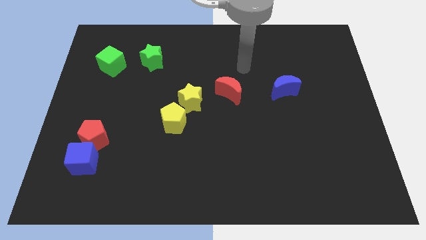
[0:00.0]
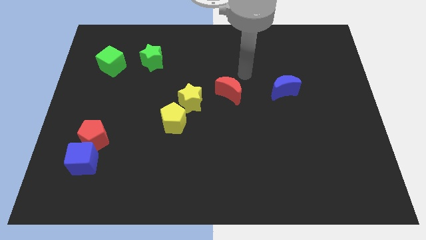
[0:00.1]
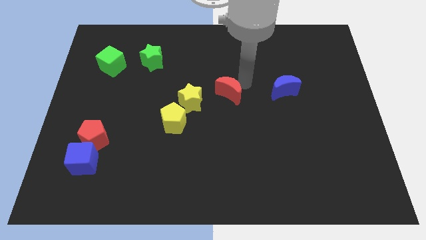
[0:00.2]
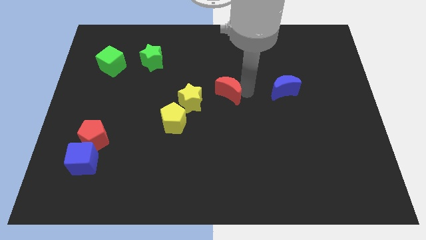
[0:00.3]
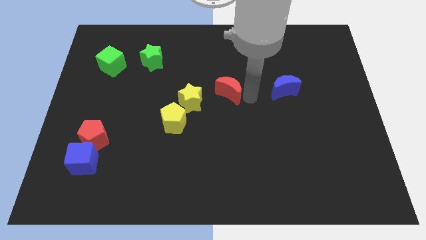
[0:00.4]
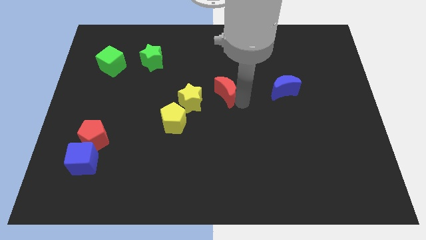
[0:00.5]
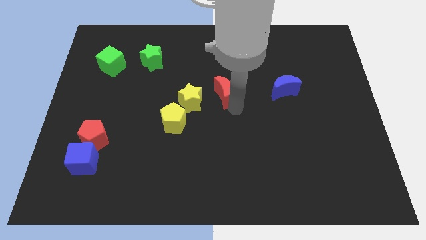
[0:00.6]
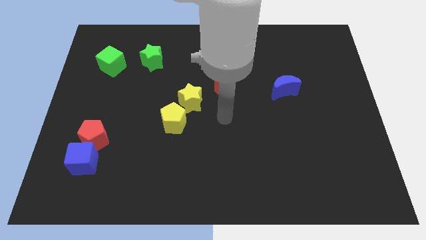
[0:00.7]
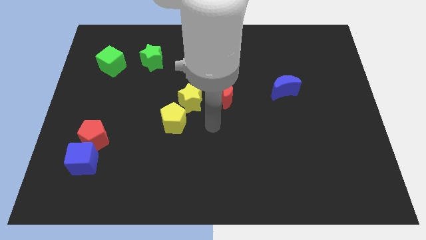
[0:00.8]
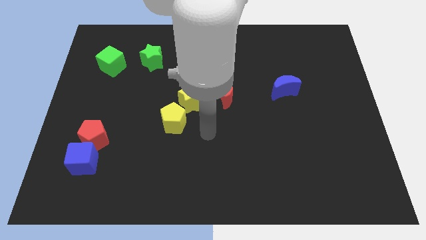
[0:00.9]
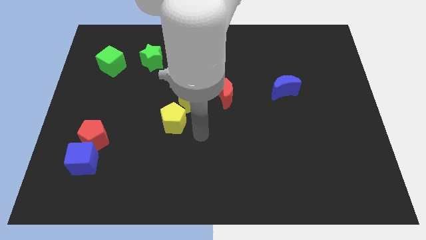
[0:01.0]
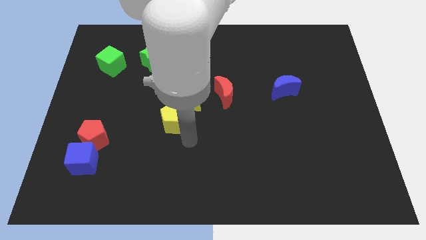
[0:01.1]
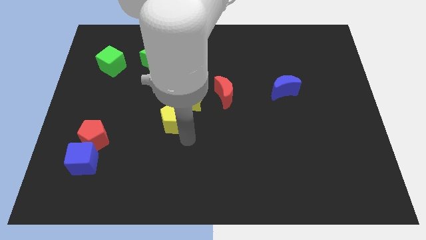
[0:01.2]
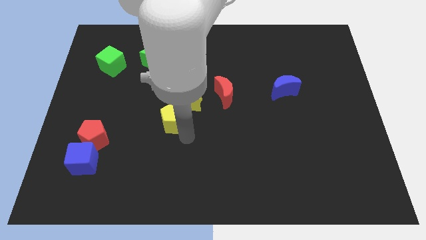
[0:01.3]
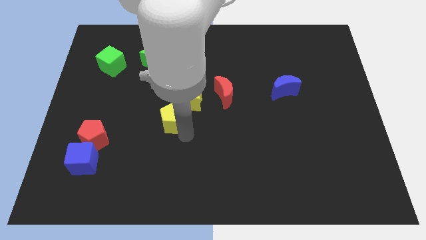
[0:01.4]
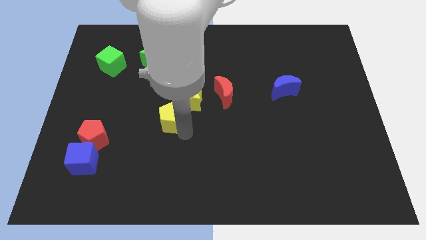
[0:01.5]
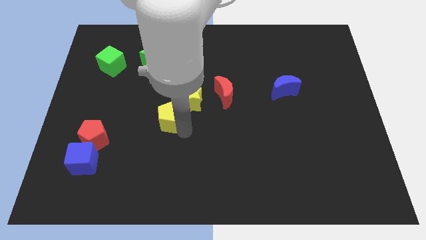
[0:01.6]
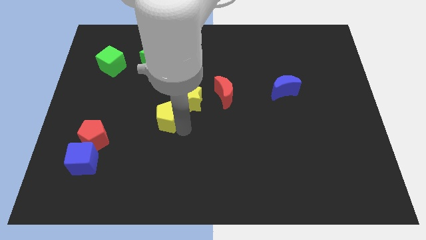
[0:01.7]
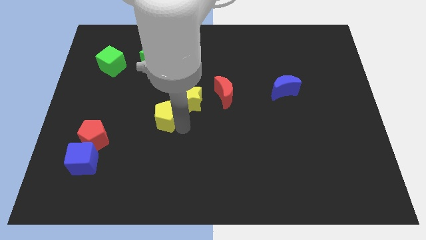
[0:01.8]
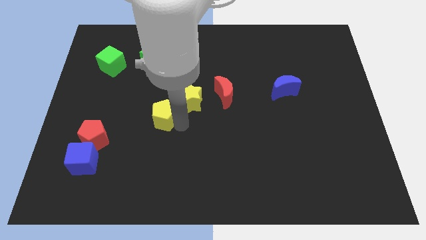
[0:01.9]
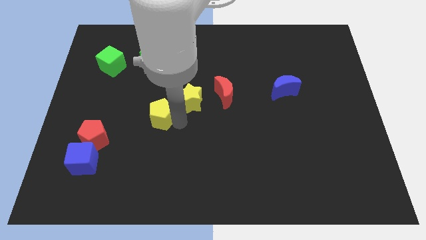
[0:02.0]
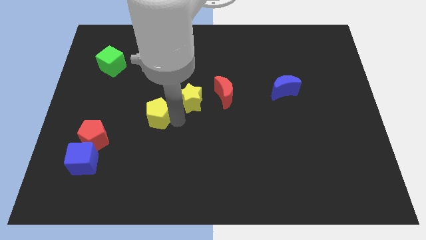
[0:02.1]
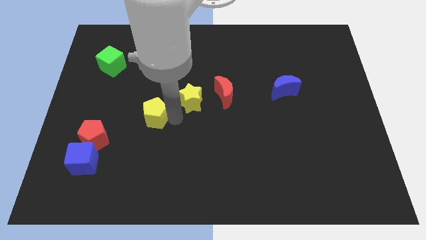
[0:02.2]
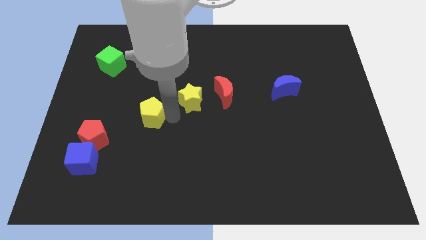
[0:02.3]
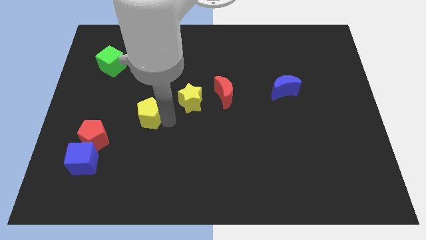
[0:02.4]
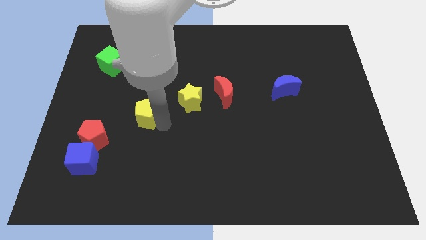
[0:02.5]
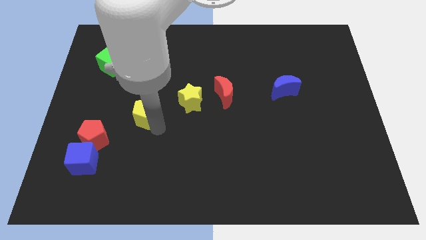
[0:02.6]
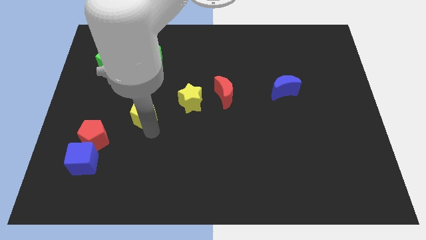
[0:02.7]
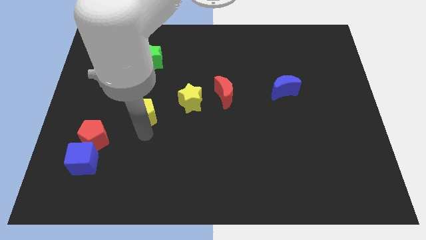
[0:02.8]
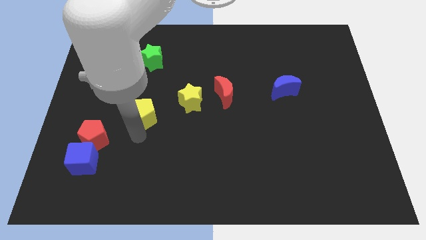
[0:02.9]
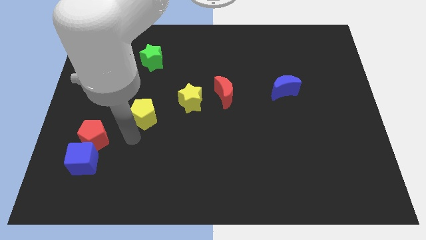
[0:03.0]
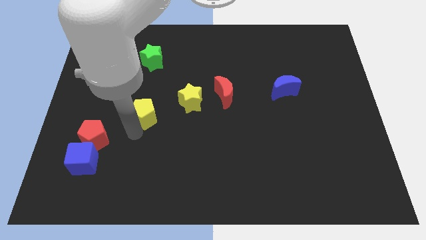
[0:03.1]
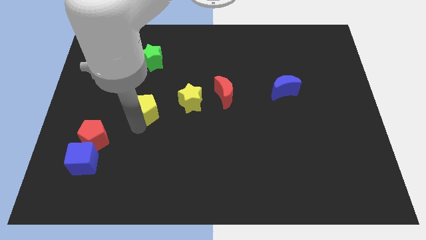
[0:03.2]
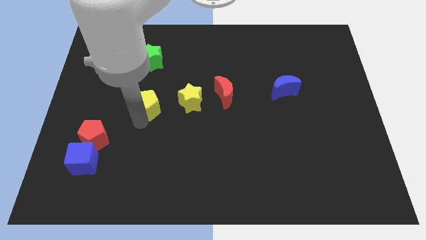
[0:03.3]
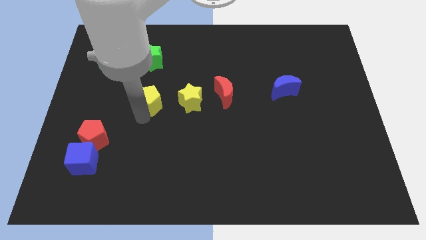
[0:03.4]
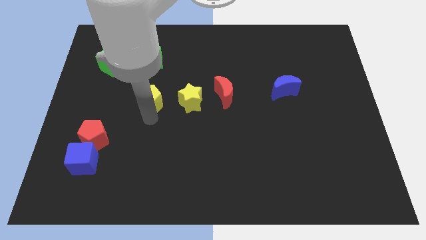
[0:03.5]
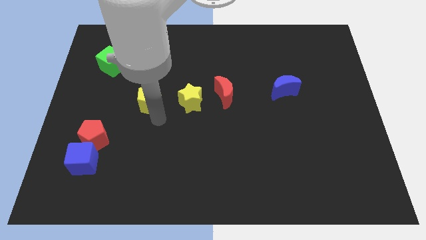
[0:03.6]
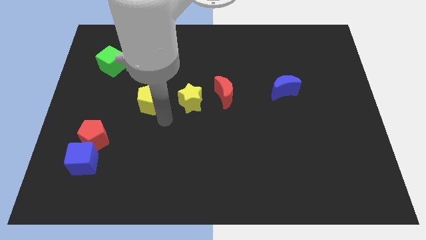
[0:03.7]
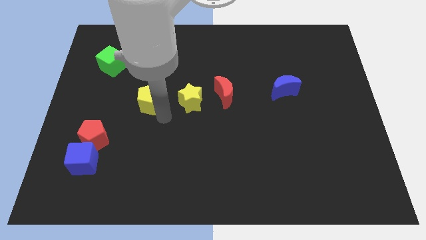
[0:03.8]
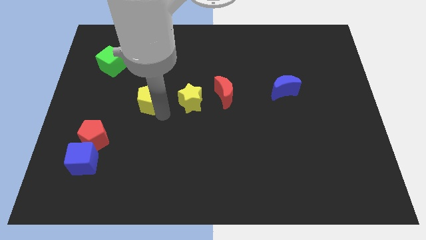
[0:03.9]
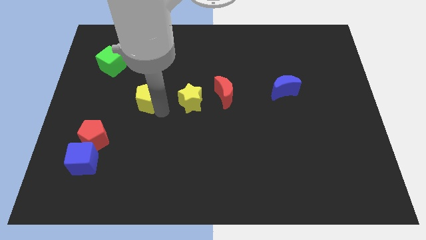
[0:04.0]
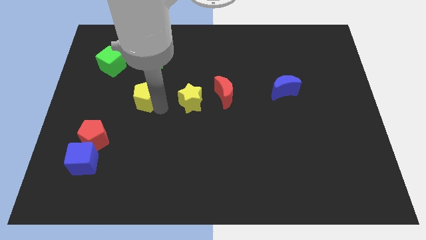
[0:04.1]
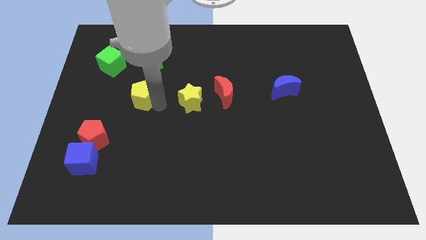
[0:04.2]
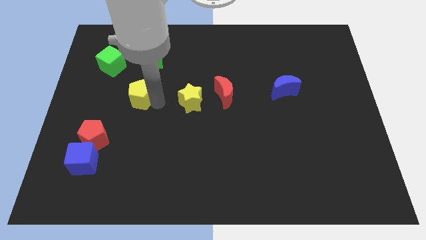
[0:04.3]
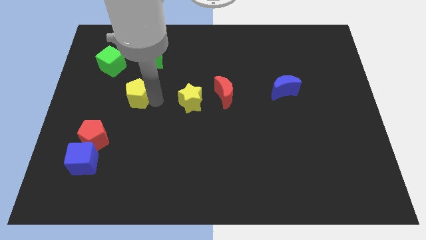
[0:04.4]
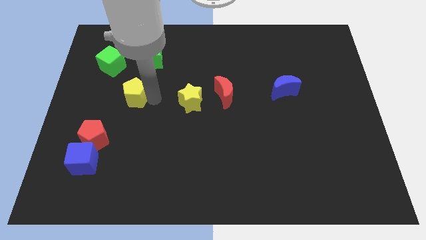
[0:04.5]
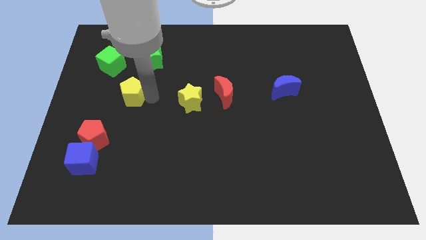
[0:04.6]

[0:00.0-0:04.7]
push the yellow pentagon to the bottom right side of the green cube

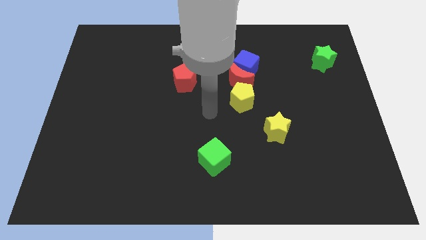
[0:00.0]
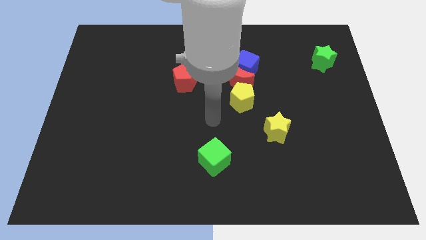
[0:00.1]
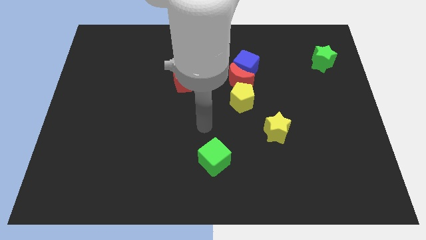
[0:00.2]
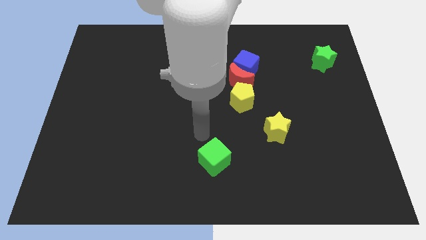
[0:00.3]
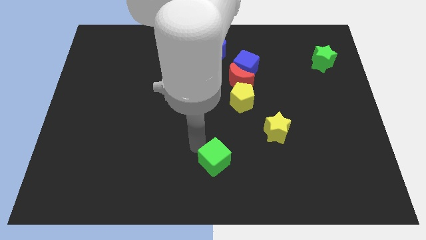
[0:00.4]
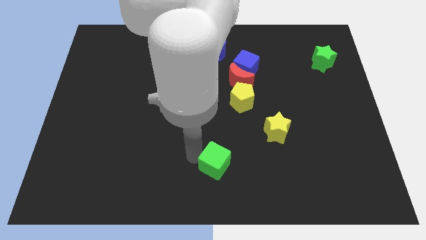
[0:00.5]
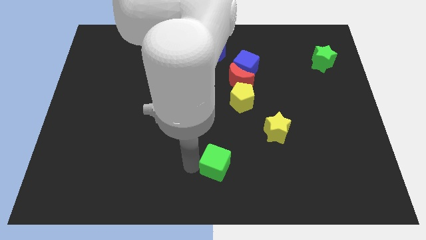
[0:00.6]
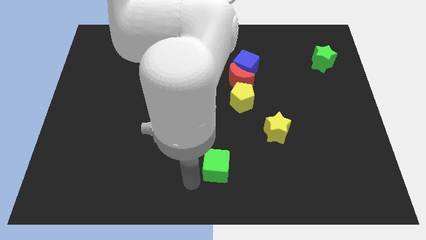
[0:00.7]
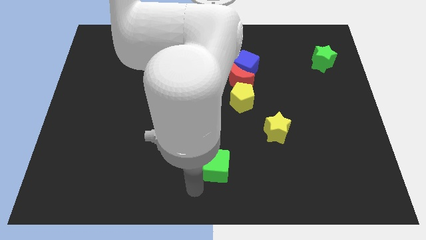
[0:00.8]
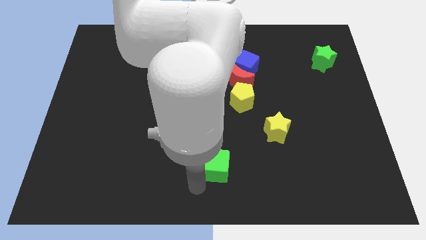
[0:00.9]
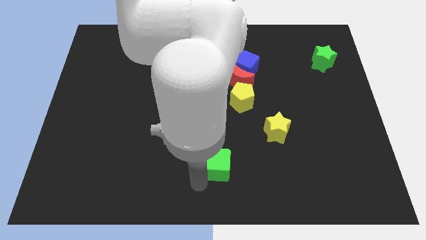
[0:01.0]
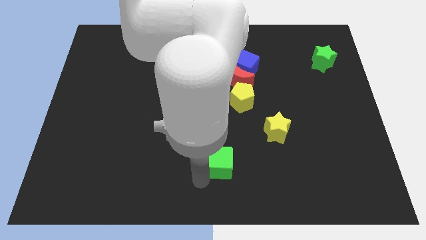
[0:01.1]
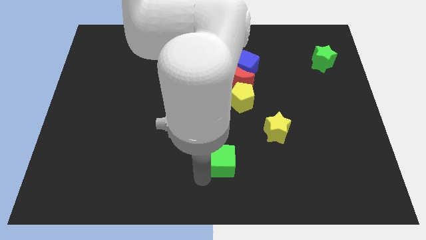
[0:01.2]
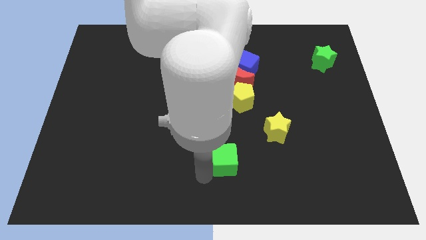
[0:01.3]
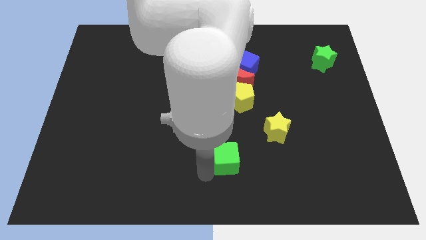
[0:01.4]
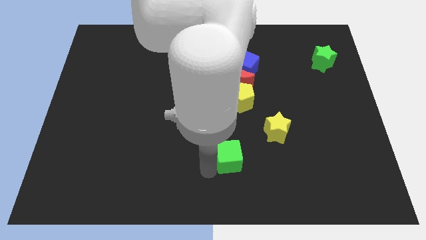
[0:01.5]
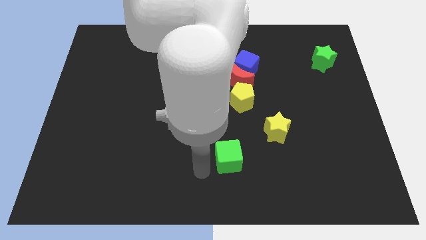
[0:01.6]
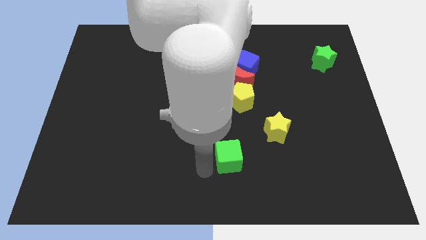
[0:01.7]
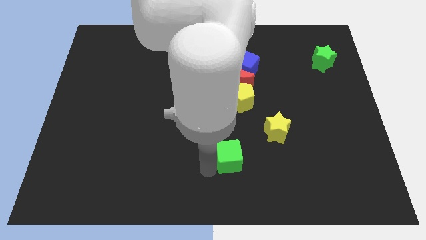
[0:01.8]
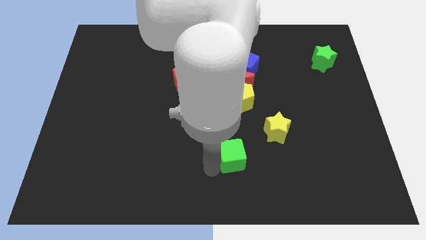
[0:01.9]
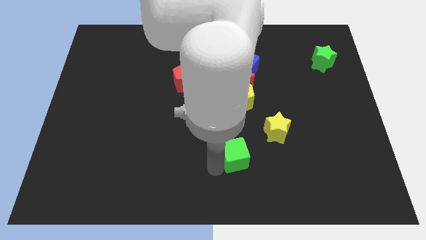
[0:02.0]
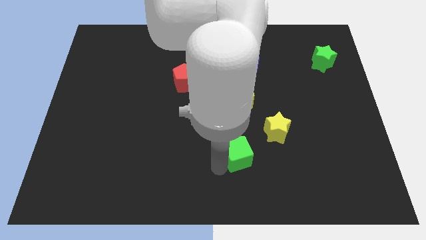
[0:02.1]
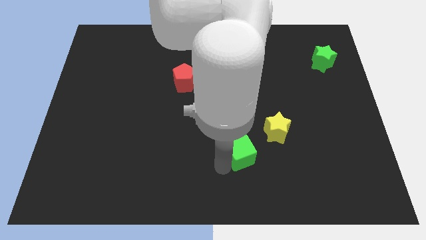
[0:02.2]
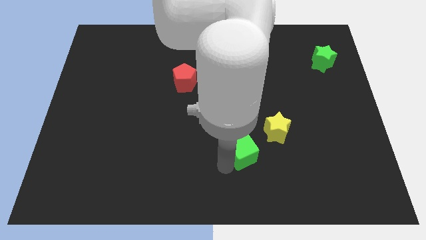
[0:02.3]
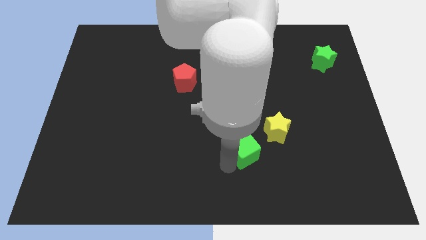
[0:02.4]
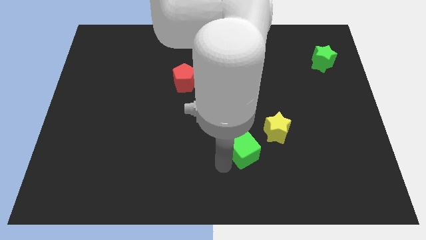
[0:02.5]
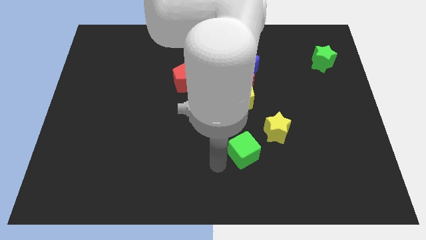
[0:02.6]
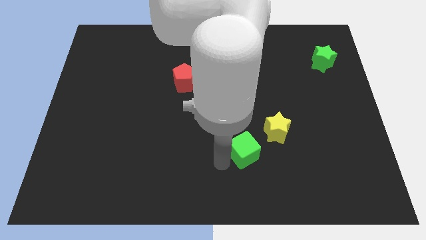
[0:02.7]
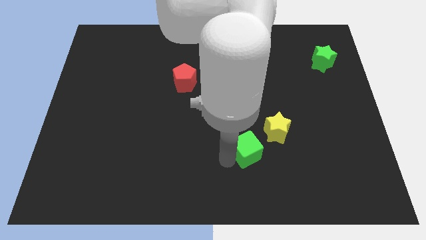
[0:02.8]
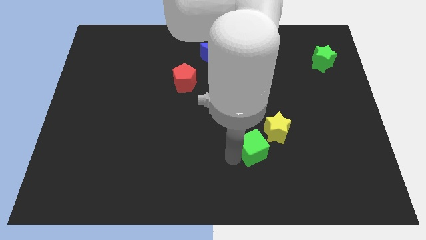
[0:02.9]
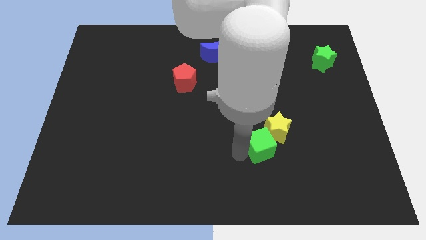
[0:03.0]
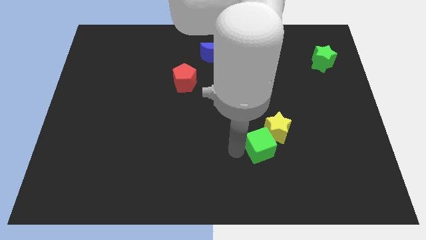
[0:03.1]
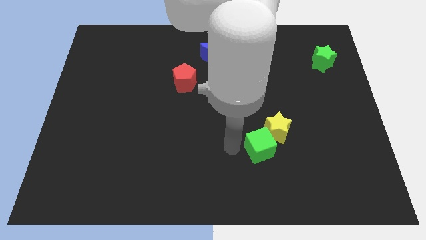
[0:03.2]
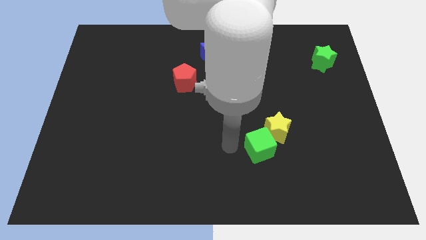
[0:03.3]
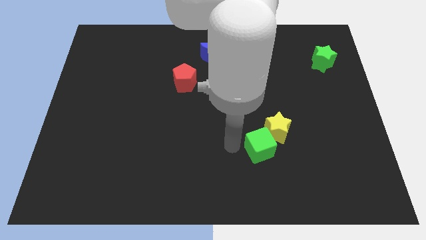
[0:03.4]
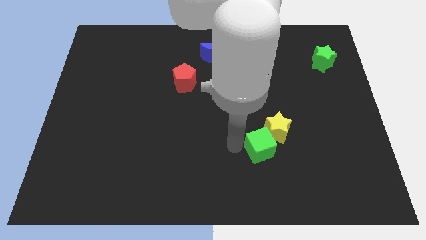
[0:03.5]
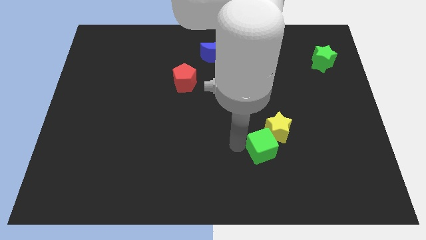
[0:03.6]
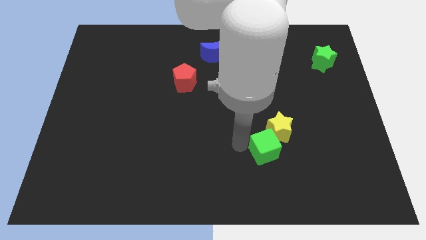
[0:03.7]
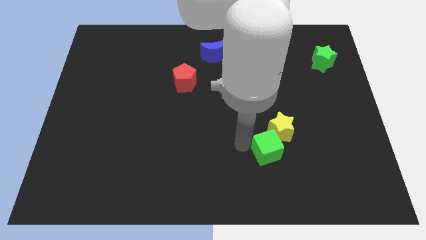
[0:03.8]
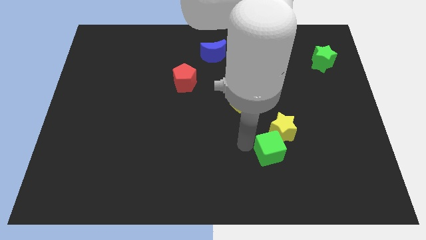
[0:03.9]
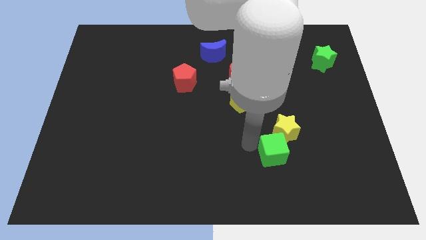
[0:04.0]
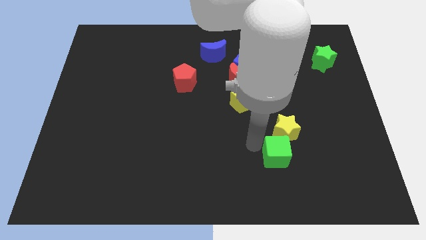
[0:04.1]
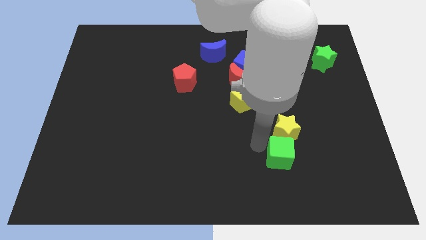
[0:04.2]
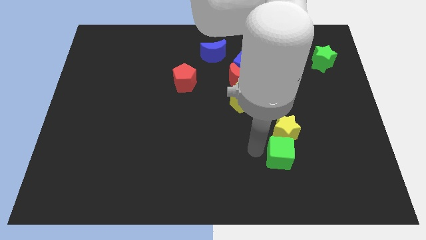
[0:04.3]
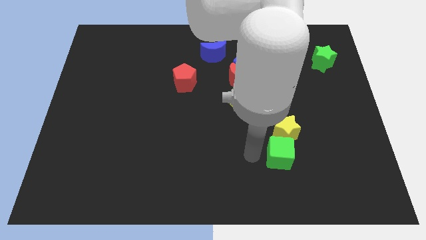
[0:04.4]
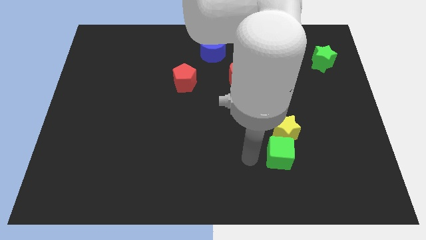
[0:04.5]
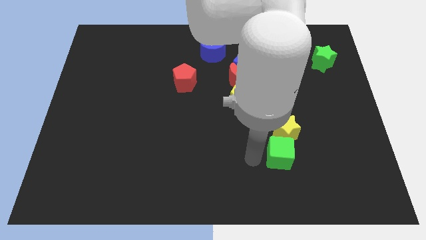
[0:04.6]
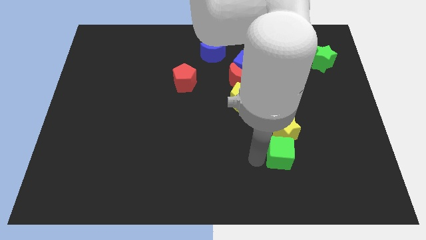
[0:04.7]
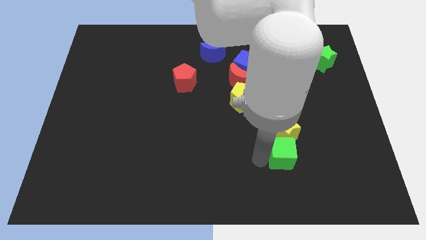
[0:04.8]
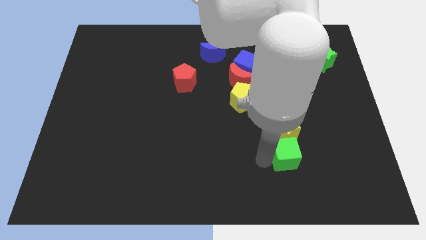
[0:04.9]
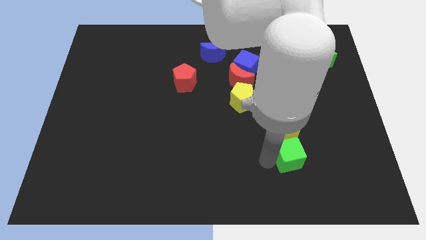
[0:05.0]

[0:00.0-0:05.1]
move the green cube to the bottom right of the yellow star
